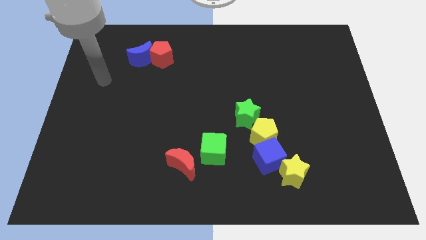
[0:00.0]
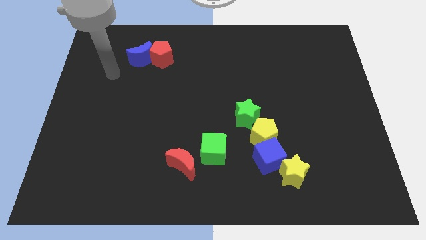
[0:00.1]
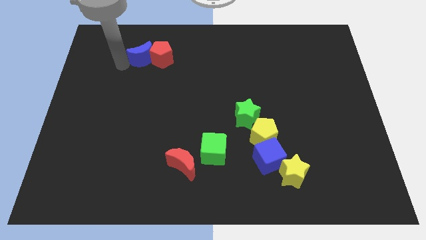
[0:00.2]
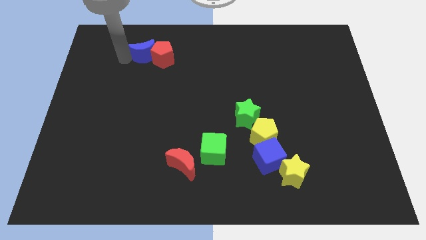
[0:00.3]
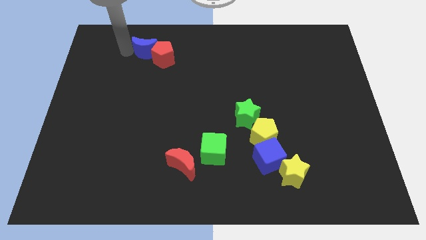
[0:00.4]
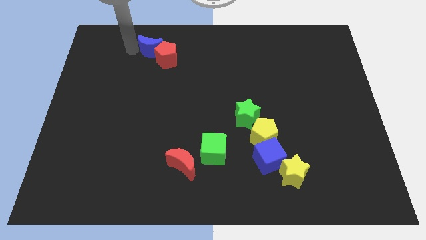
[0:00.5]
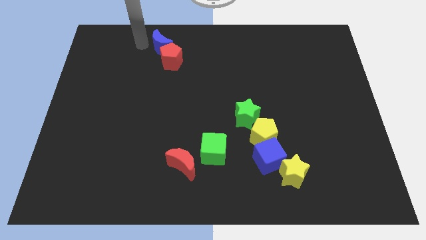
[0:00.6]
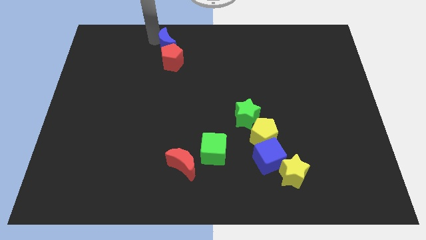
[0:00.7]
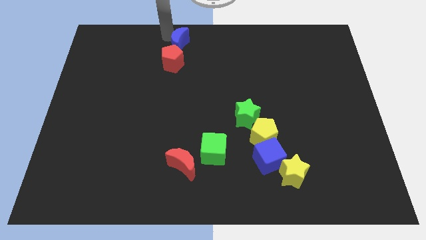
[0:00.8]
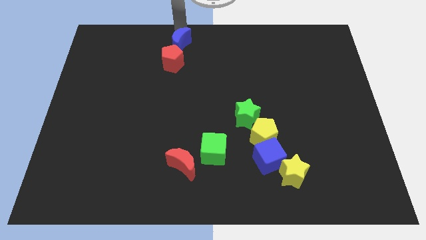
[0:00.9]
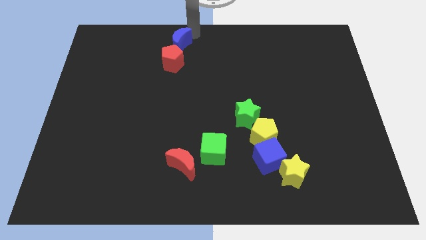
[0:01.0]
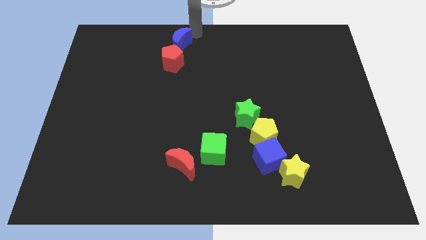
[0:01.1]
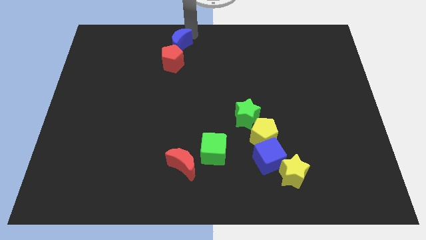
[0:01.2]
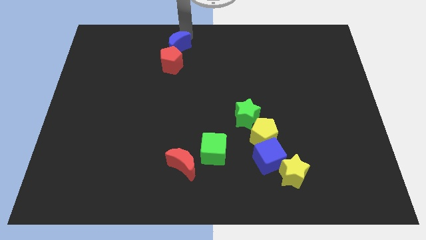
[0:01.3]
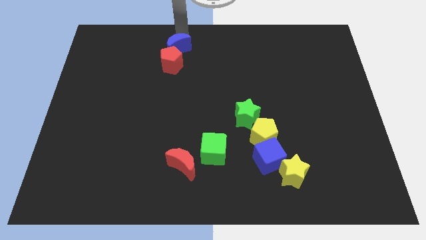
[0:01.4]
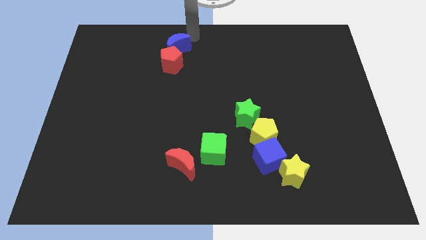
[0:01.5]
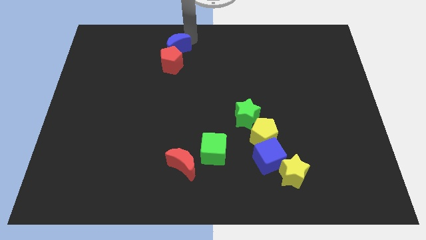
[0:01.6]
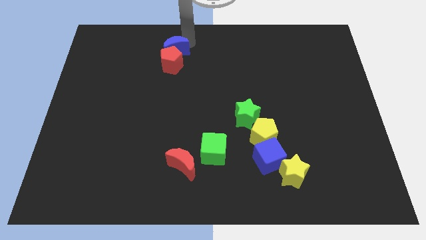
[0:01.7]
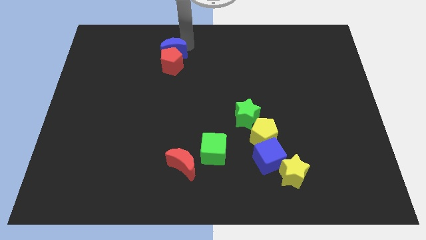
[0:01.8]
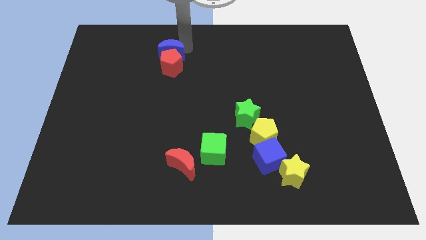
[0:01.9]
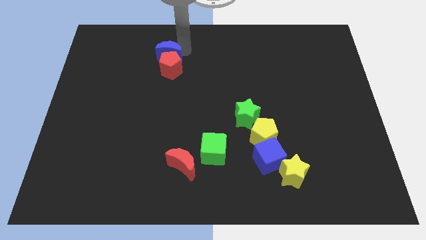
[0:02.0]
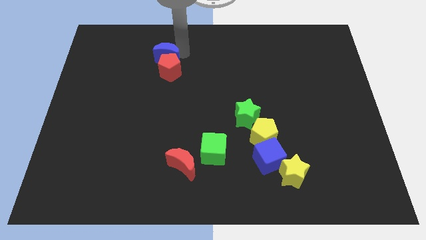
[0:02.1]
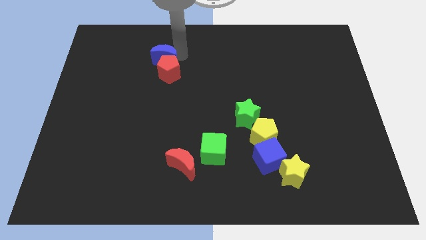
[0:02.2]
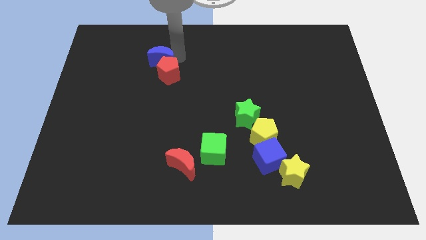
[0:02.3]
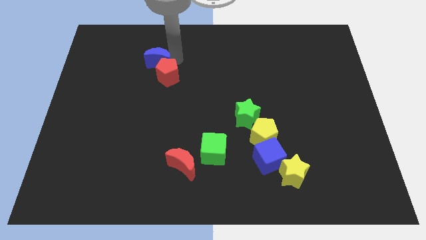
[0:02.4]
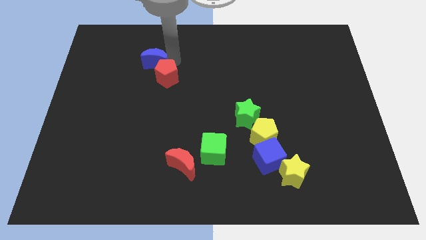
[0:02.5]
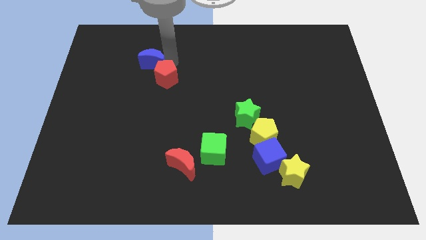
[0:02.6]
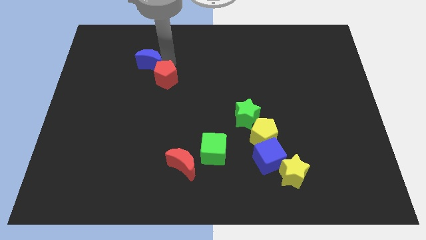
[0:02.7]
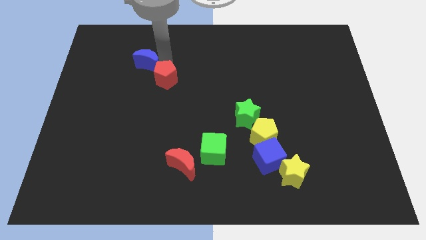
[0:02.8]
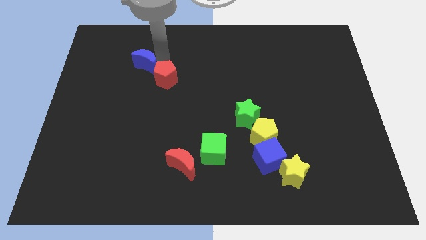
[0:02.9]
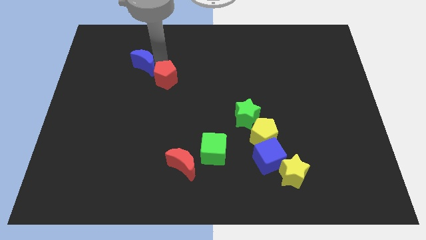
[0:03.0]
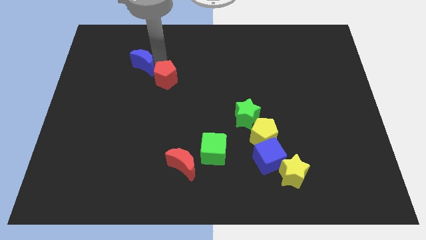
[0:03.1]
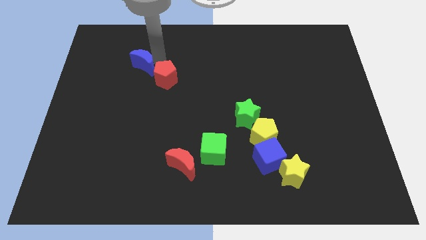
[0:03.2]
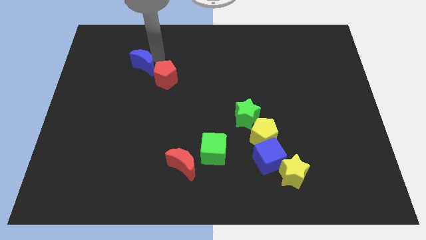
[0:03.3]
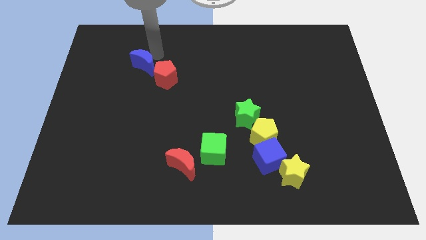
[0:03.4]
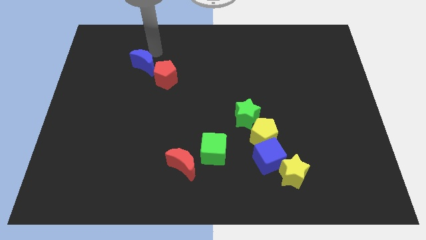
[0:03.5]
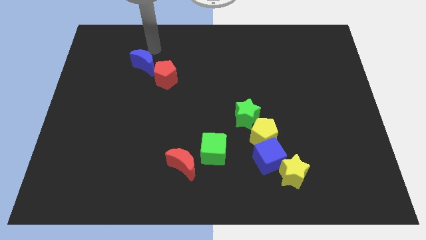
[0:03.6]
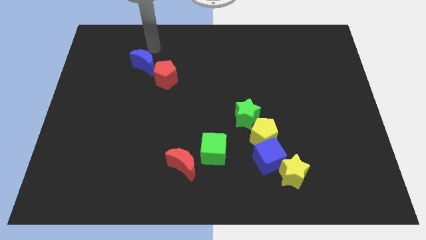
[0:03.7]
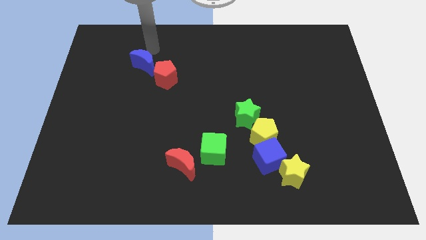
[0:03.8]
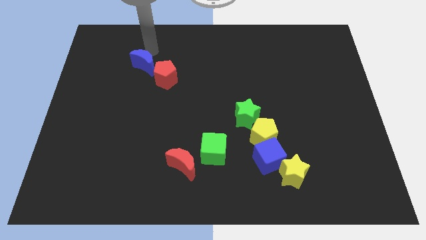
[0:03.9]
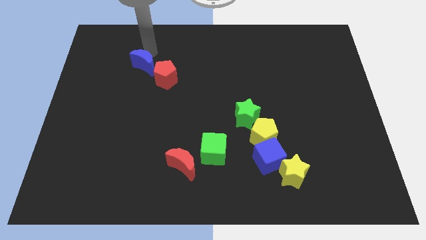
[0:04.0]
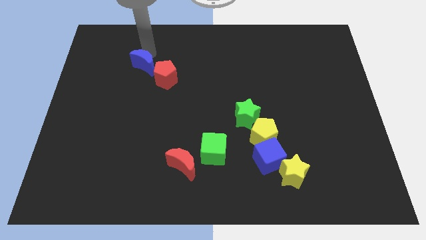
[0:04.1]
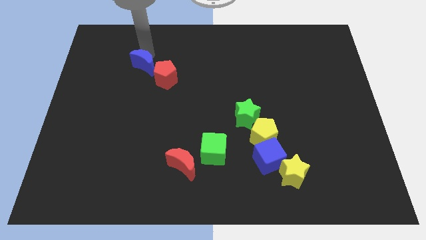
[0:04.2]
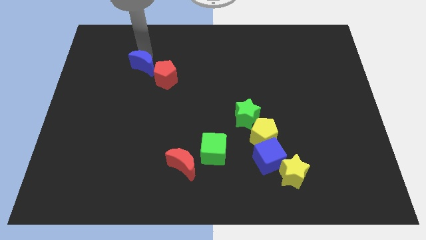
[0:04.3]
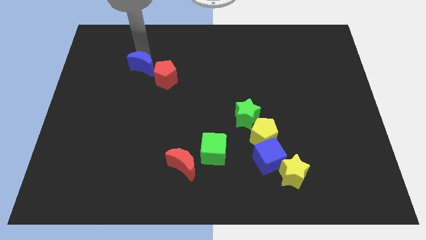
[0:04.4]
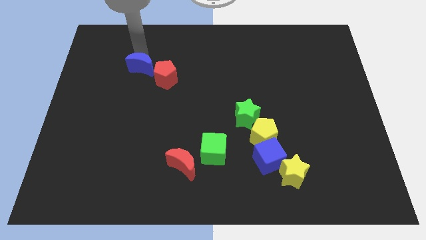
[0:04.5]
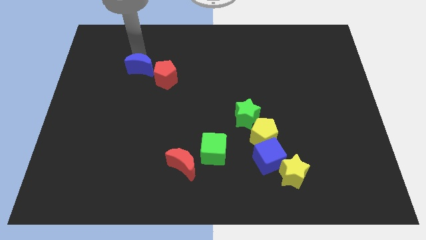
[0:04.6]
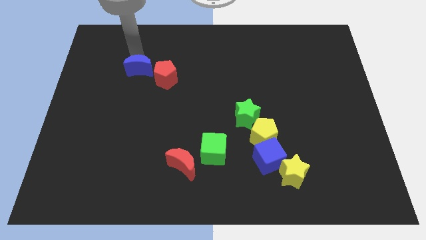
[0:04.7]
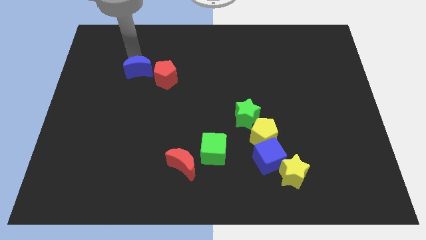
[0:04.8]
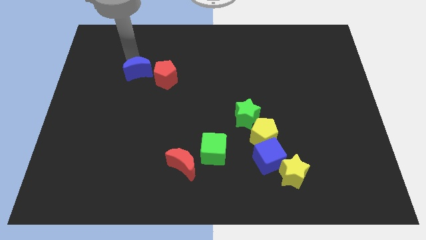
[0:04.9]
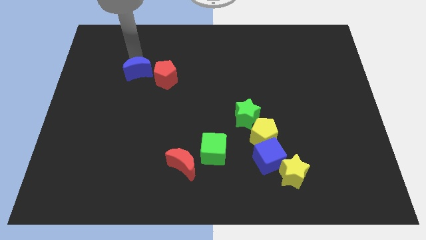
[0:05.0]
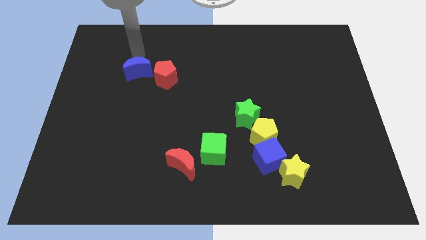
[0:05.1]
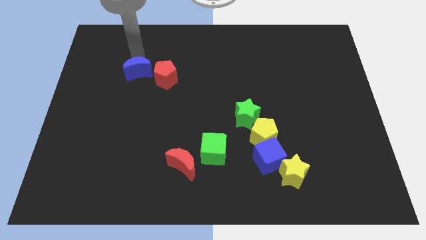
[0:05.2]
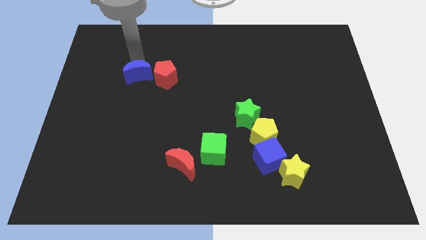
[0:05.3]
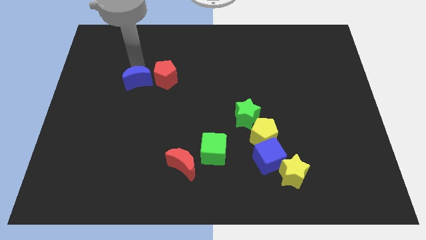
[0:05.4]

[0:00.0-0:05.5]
slightly slide the blue moon down

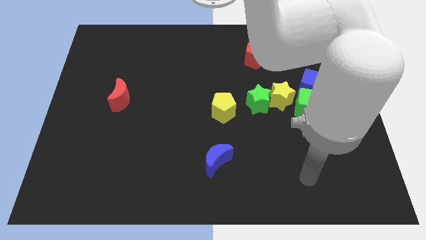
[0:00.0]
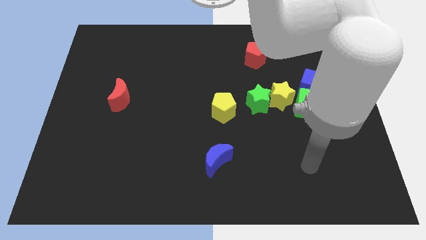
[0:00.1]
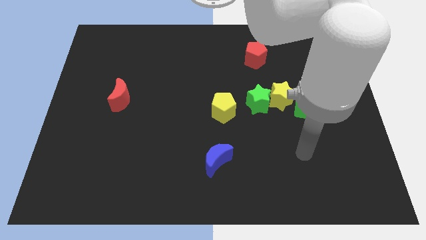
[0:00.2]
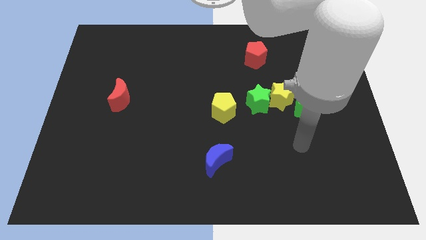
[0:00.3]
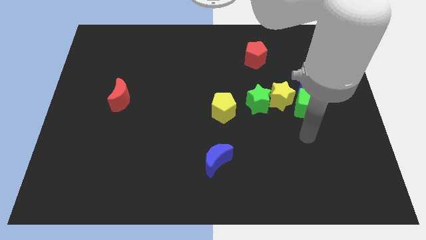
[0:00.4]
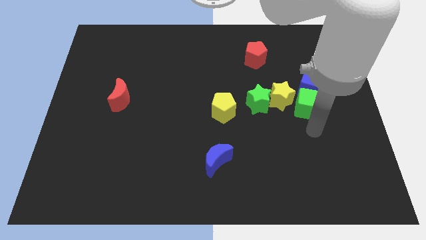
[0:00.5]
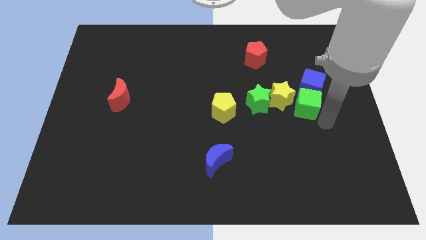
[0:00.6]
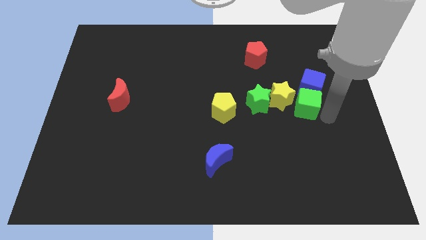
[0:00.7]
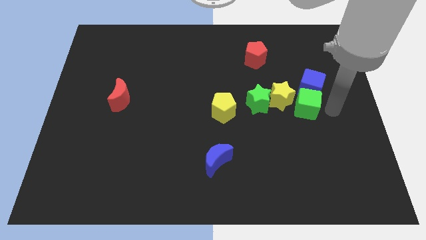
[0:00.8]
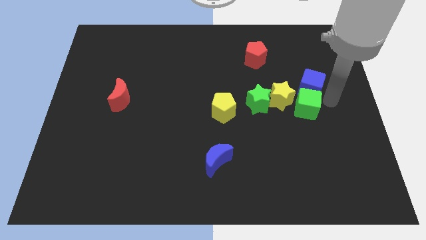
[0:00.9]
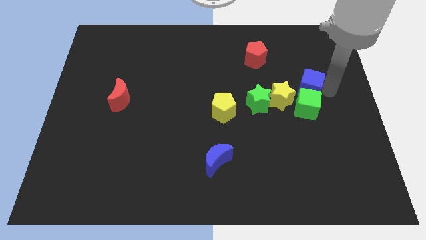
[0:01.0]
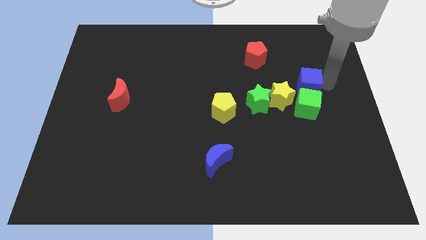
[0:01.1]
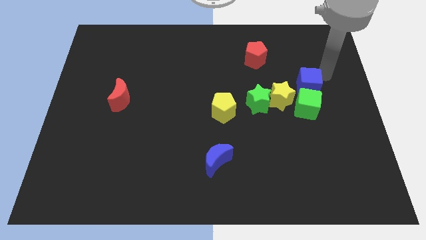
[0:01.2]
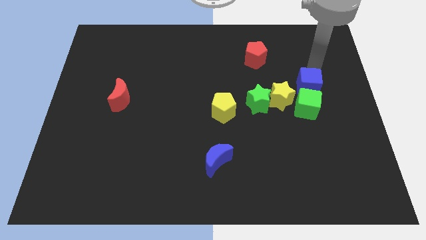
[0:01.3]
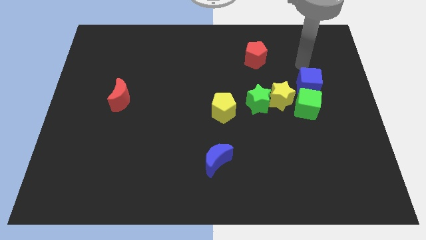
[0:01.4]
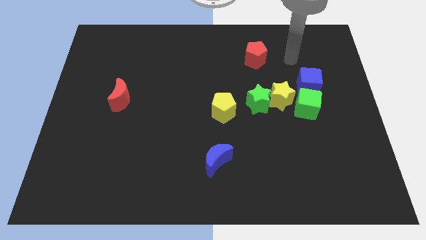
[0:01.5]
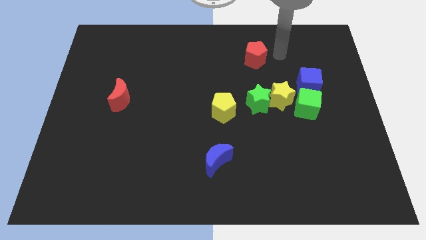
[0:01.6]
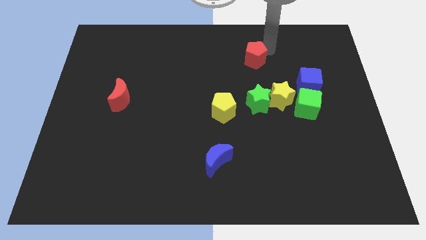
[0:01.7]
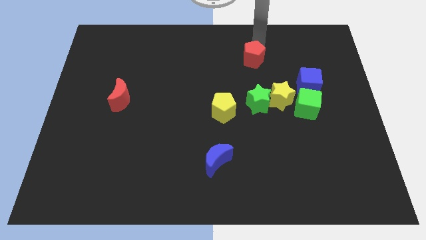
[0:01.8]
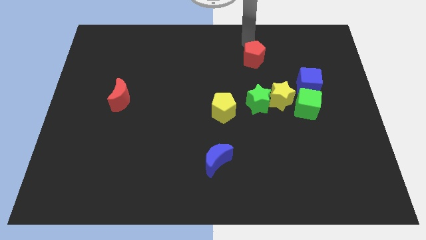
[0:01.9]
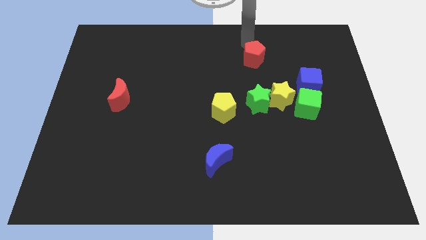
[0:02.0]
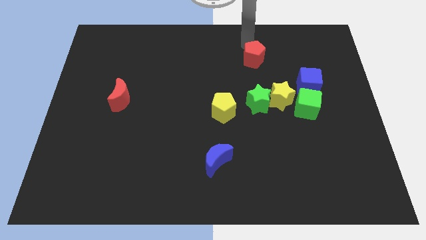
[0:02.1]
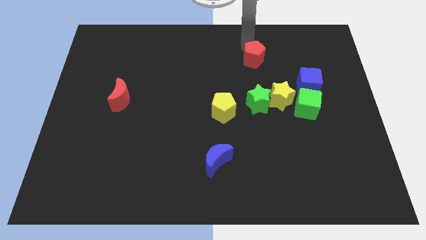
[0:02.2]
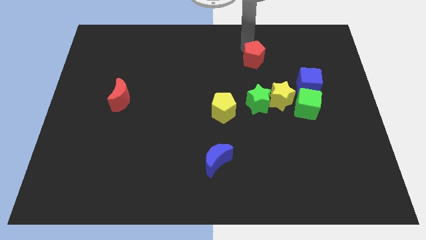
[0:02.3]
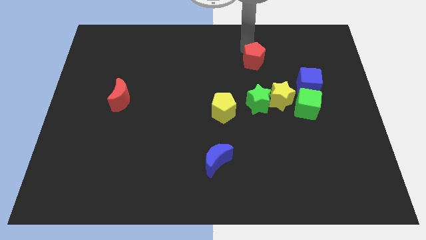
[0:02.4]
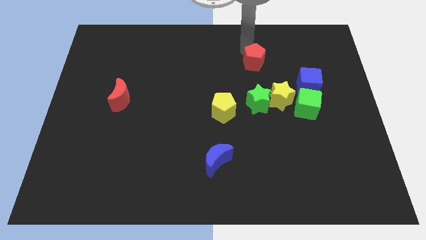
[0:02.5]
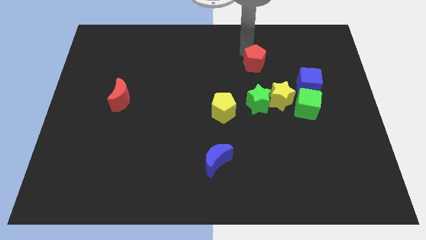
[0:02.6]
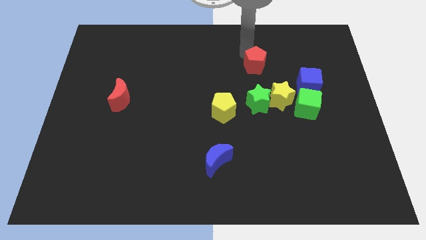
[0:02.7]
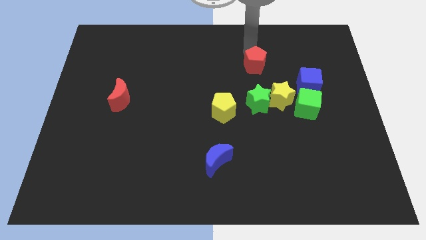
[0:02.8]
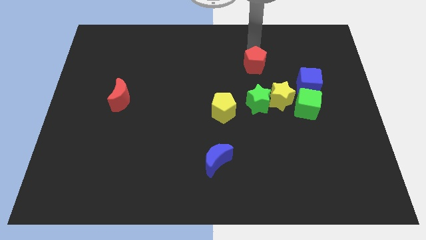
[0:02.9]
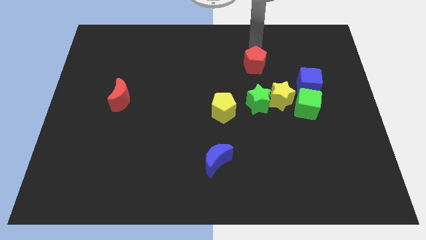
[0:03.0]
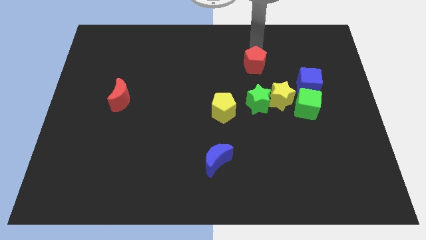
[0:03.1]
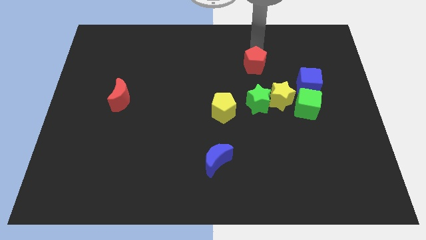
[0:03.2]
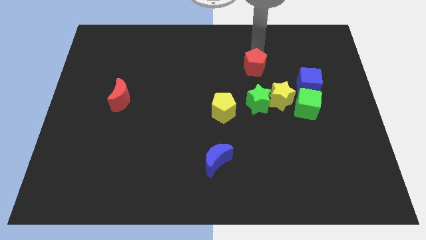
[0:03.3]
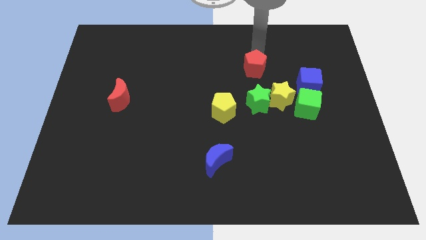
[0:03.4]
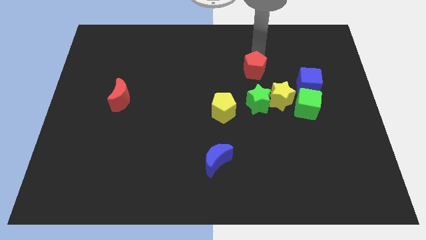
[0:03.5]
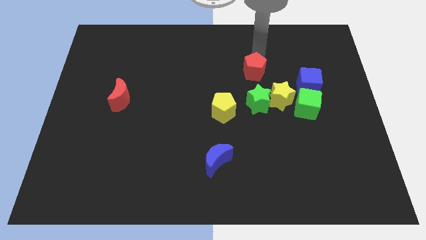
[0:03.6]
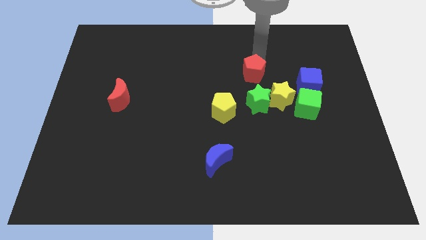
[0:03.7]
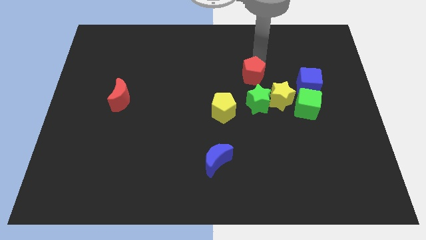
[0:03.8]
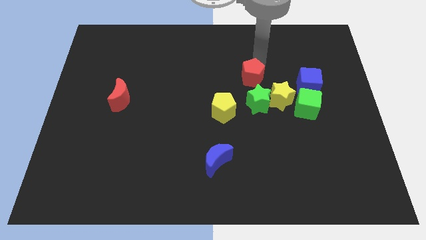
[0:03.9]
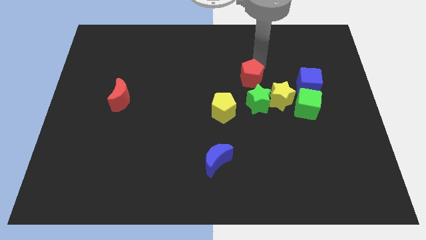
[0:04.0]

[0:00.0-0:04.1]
slightly push the red pentagon downwards
